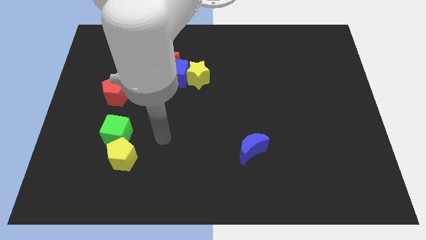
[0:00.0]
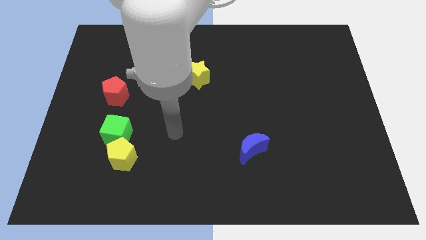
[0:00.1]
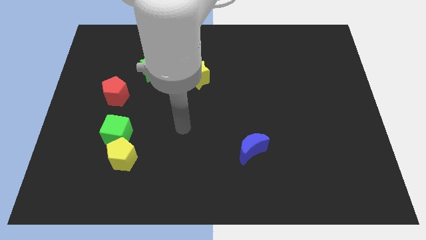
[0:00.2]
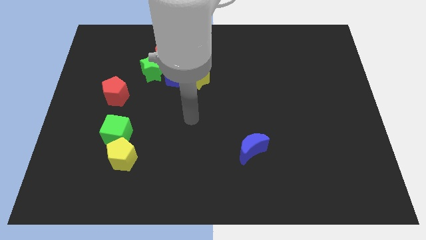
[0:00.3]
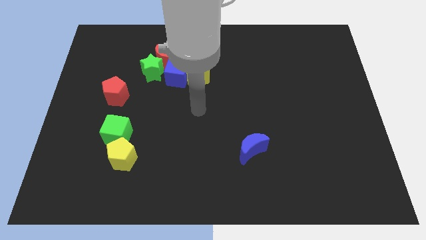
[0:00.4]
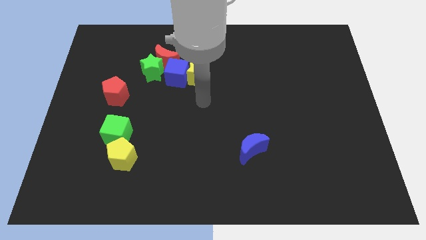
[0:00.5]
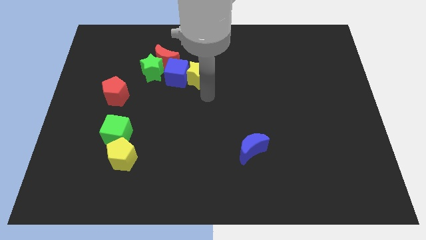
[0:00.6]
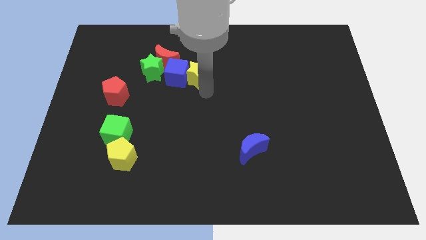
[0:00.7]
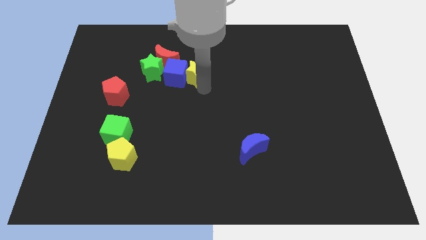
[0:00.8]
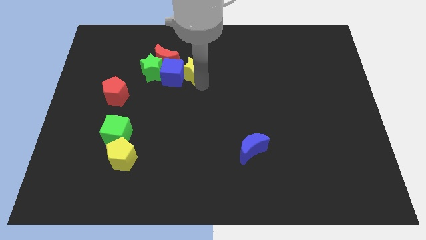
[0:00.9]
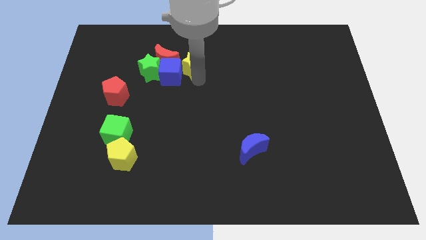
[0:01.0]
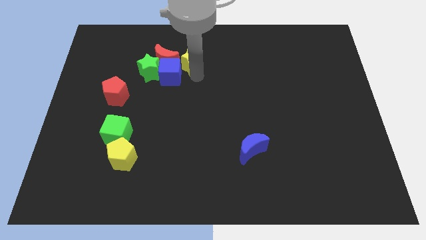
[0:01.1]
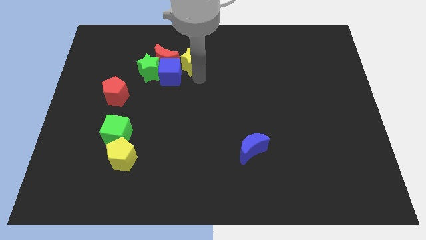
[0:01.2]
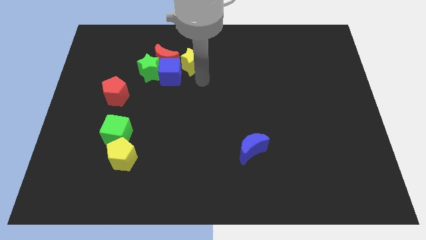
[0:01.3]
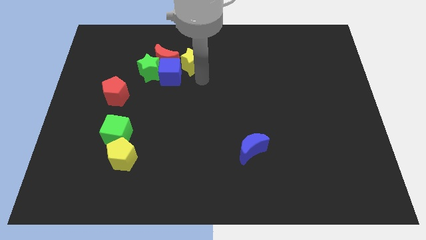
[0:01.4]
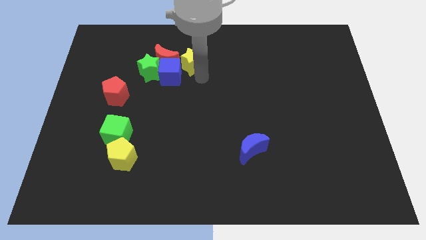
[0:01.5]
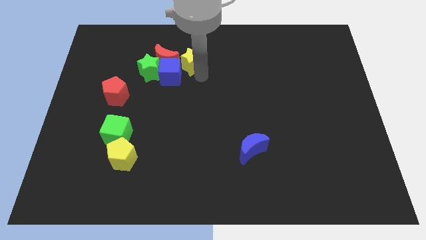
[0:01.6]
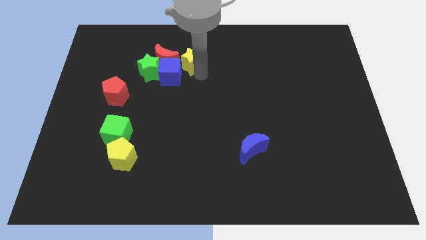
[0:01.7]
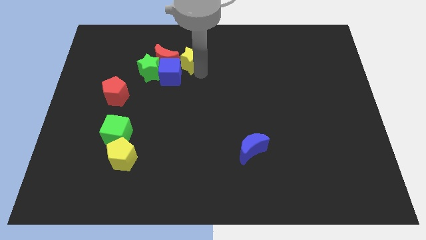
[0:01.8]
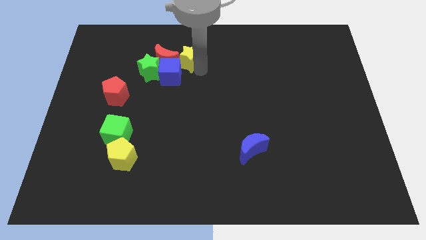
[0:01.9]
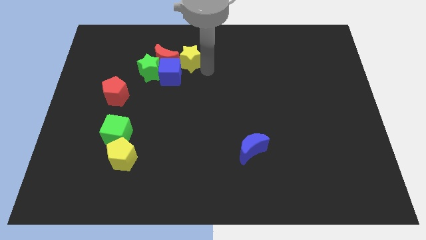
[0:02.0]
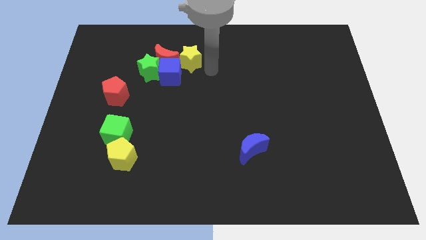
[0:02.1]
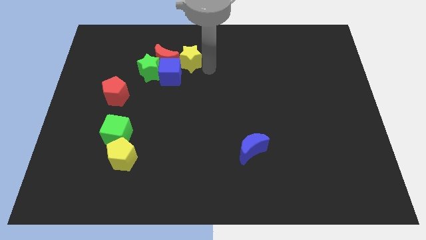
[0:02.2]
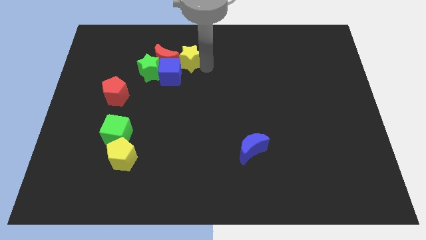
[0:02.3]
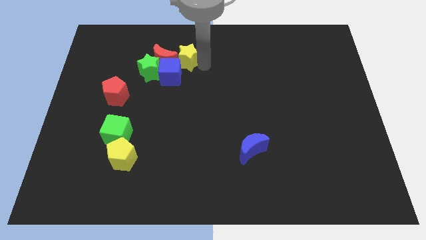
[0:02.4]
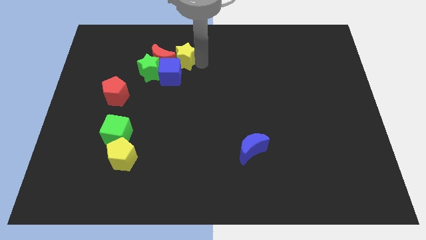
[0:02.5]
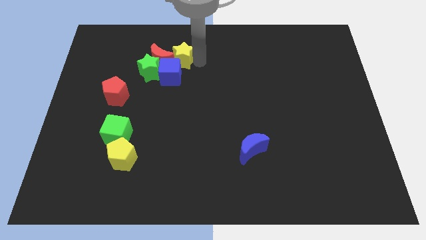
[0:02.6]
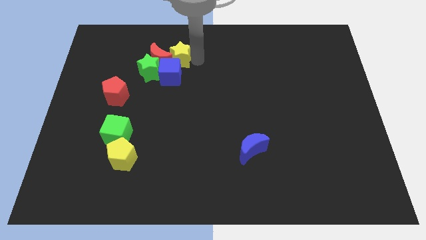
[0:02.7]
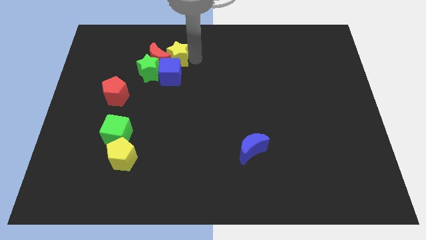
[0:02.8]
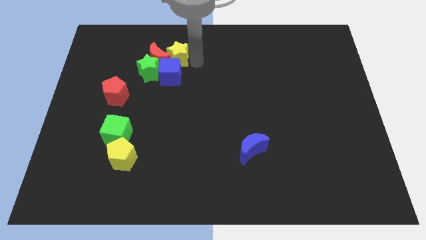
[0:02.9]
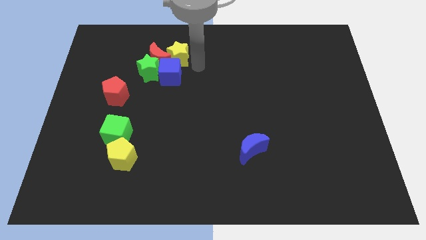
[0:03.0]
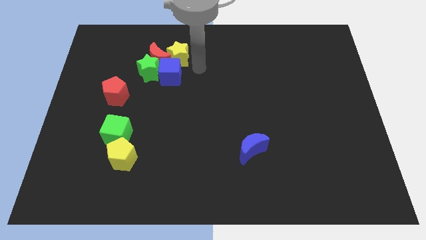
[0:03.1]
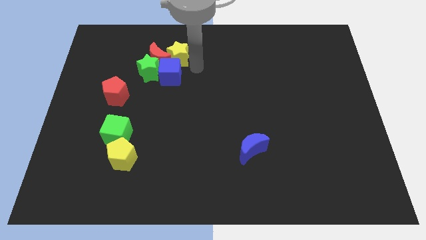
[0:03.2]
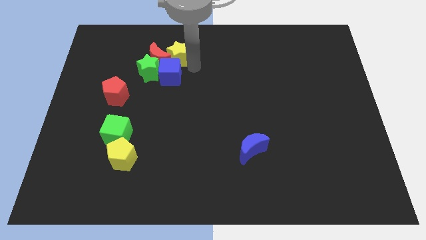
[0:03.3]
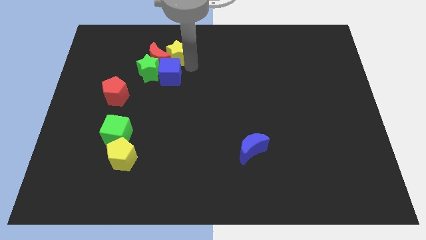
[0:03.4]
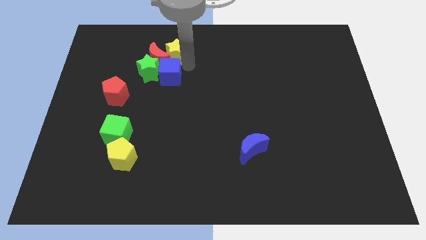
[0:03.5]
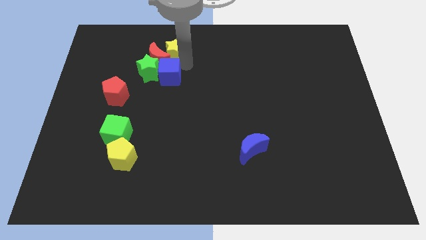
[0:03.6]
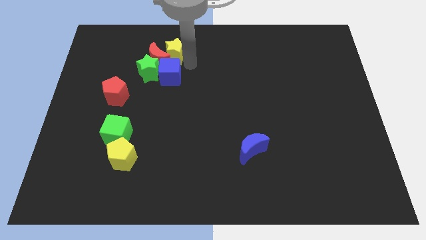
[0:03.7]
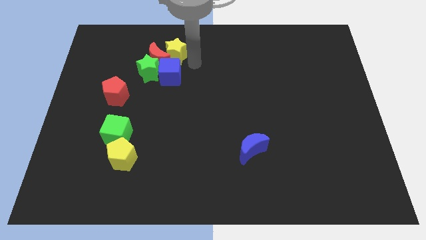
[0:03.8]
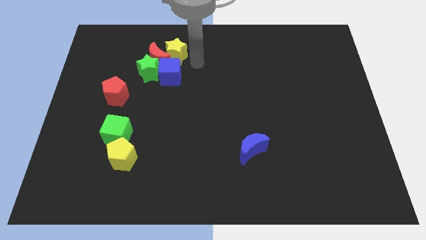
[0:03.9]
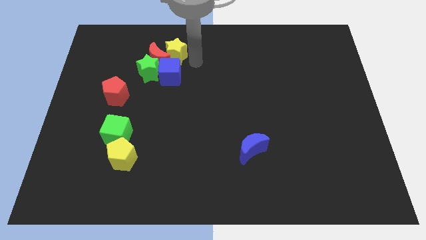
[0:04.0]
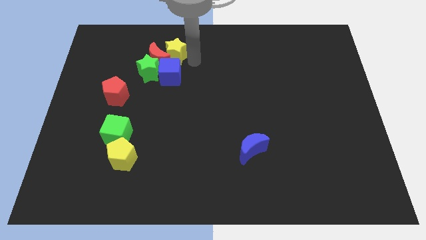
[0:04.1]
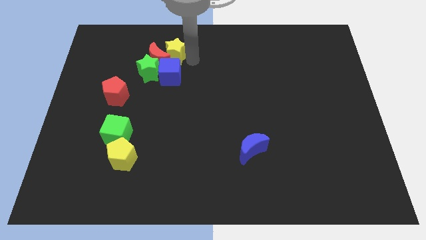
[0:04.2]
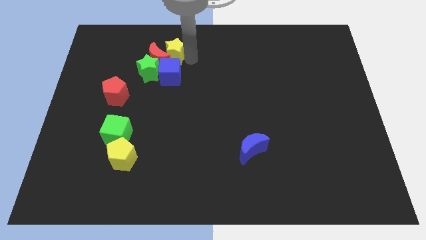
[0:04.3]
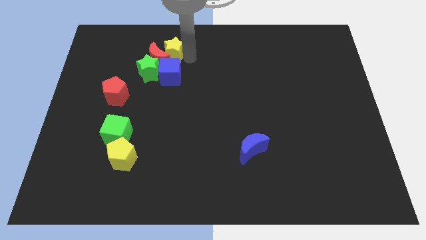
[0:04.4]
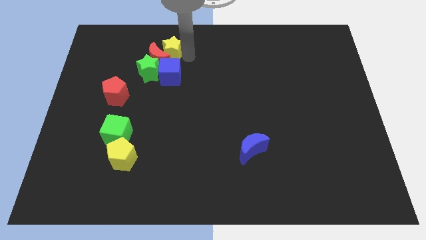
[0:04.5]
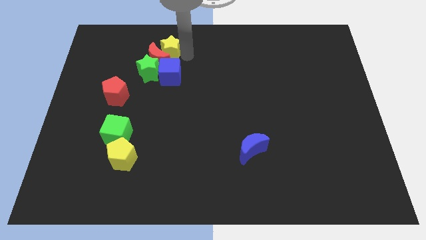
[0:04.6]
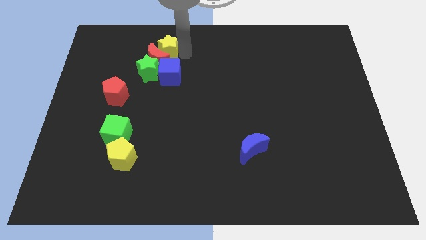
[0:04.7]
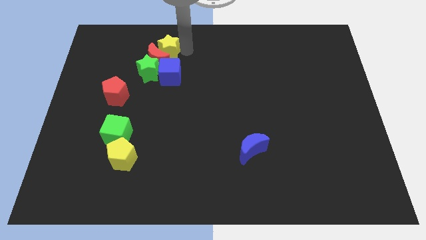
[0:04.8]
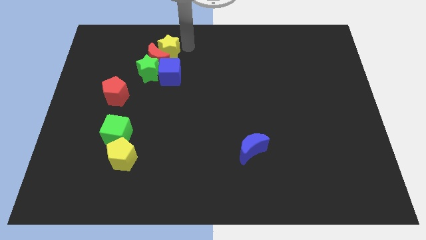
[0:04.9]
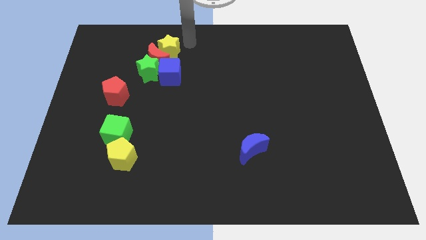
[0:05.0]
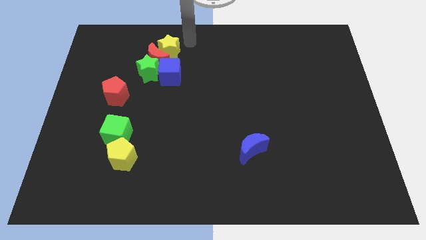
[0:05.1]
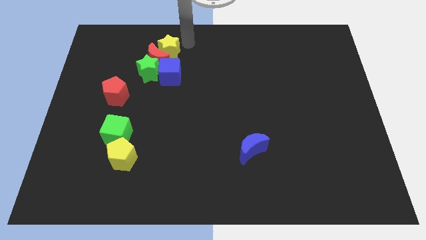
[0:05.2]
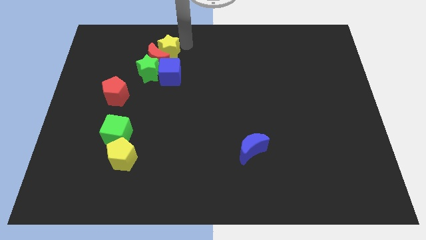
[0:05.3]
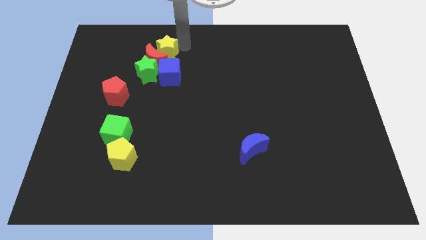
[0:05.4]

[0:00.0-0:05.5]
move the yellow star to the top left of the blue cube

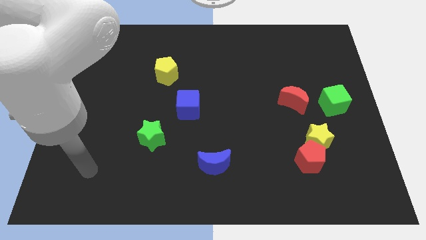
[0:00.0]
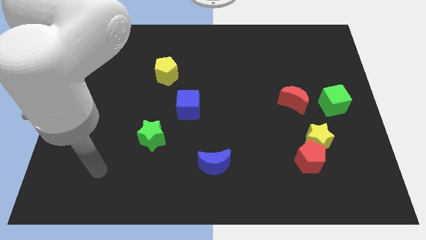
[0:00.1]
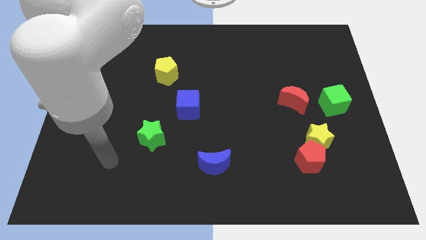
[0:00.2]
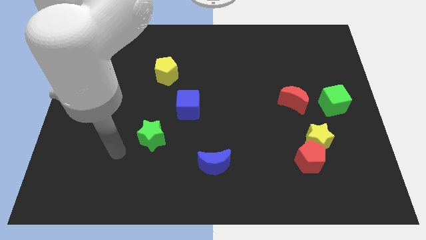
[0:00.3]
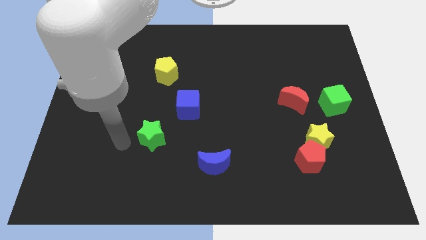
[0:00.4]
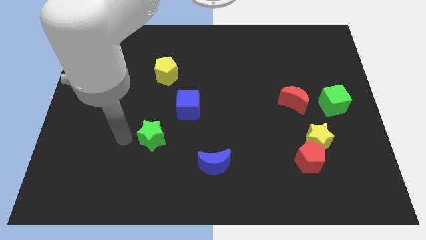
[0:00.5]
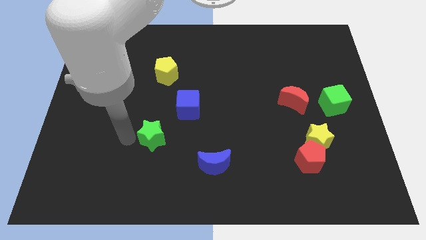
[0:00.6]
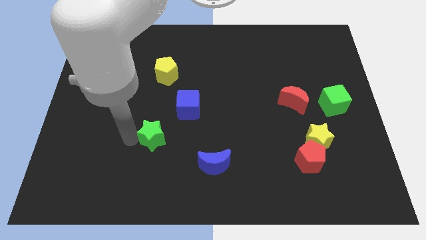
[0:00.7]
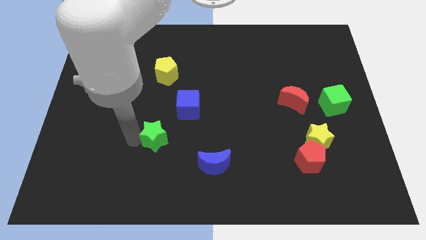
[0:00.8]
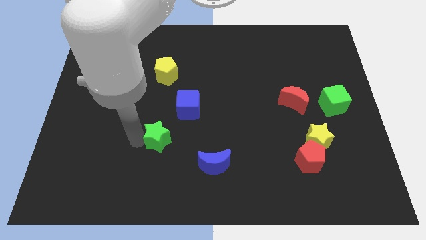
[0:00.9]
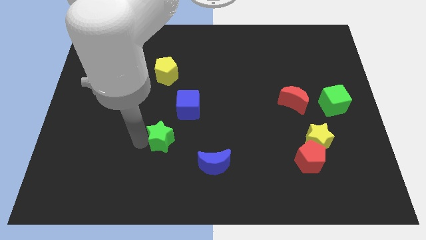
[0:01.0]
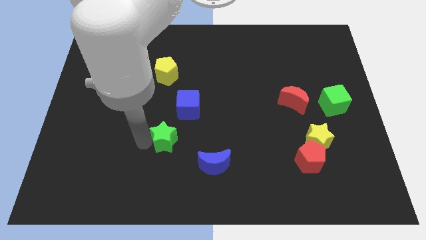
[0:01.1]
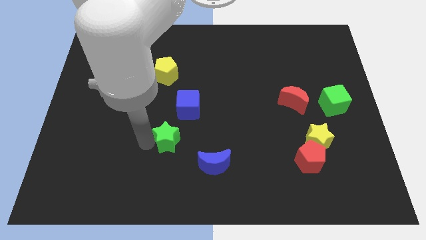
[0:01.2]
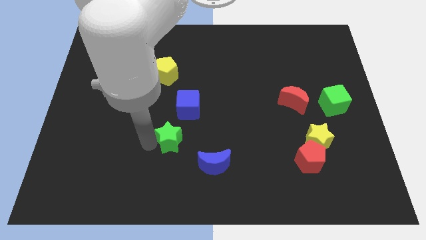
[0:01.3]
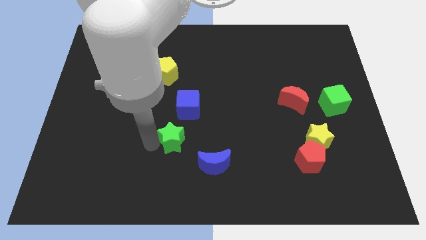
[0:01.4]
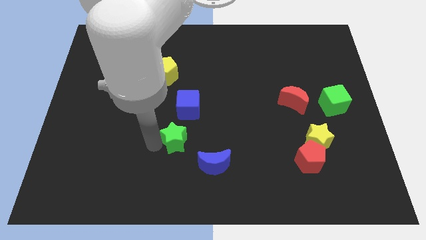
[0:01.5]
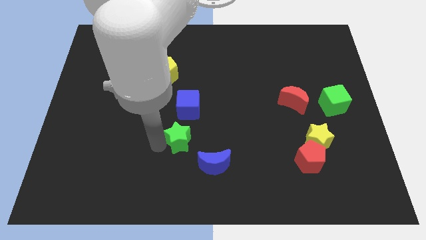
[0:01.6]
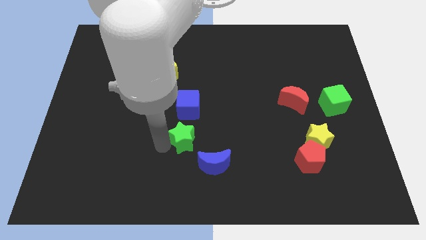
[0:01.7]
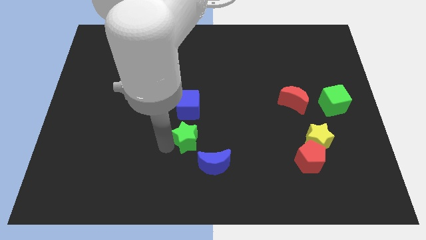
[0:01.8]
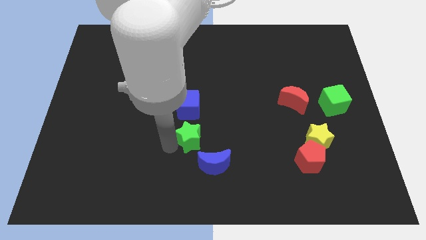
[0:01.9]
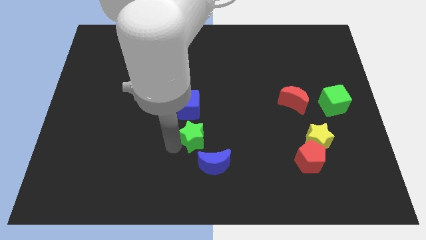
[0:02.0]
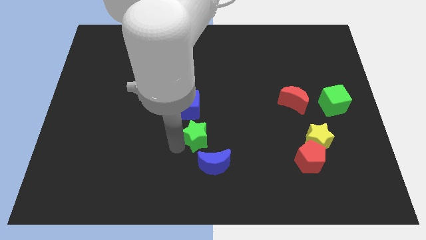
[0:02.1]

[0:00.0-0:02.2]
push the green star to the bottom right of the blue cube
